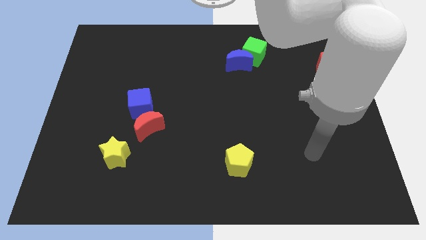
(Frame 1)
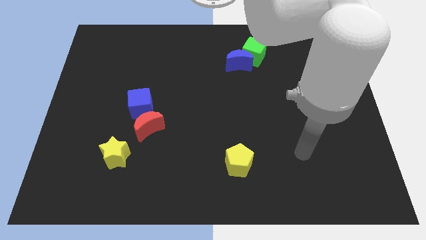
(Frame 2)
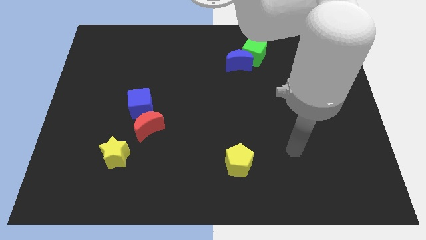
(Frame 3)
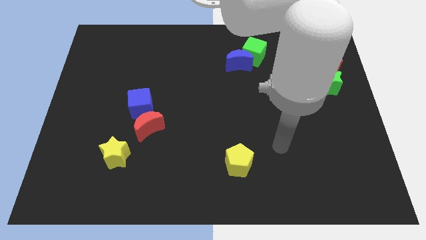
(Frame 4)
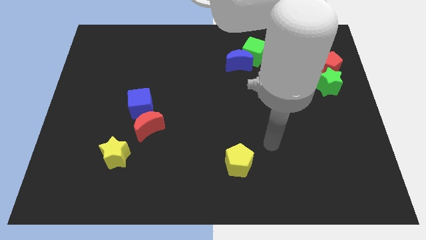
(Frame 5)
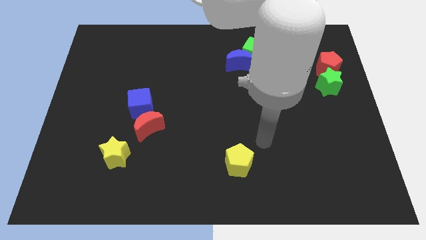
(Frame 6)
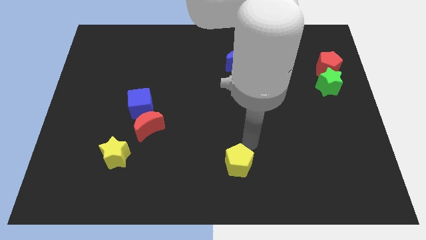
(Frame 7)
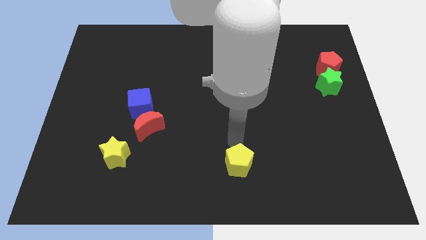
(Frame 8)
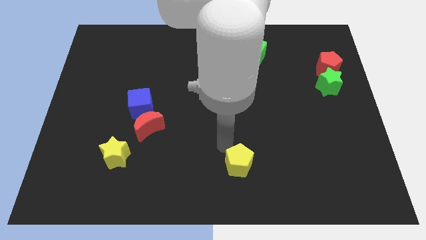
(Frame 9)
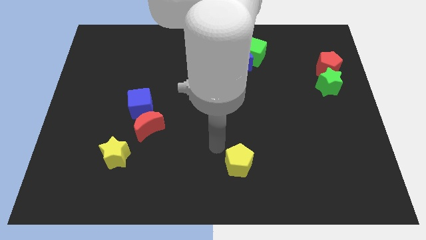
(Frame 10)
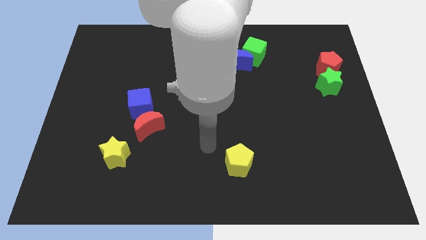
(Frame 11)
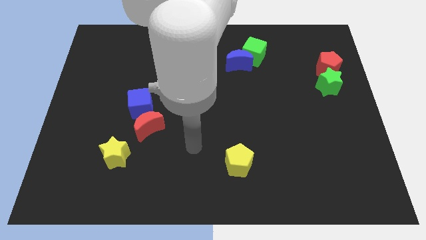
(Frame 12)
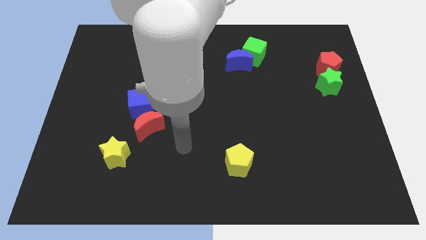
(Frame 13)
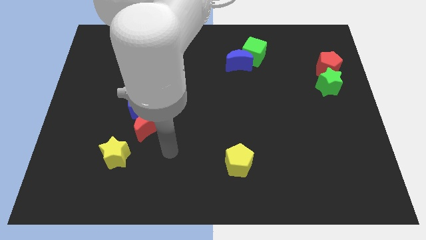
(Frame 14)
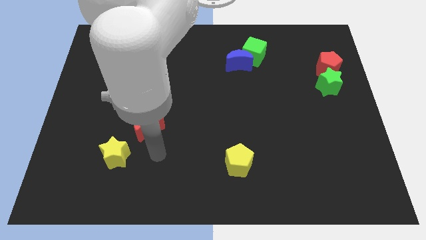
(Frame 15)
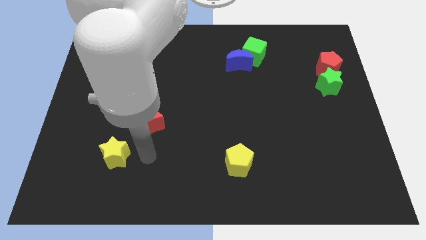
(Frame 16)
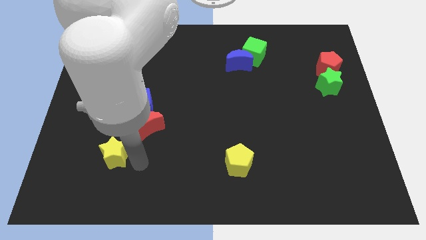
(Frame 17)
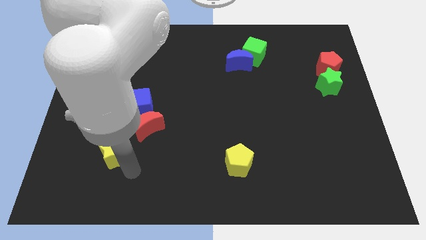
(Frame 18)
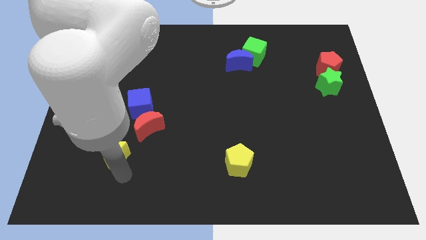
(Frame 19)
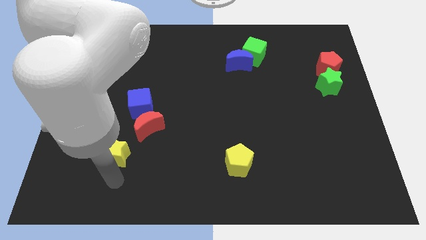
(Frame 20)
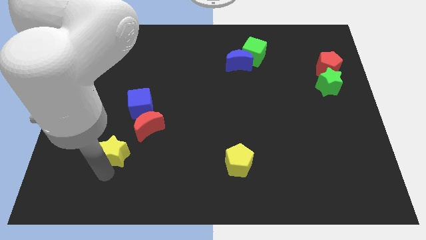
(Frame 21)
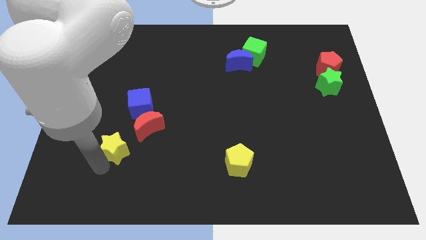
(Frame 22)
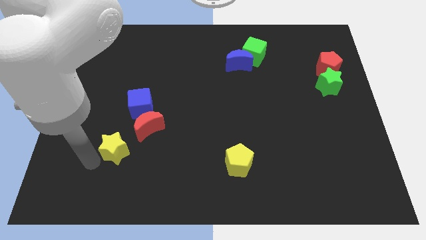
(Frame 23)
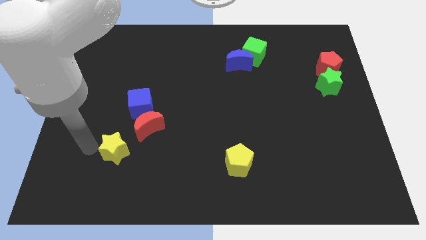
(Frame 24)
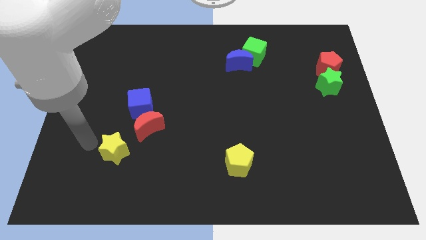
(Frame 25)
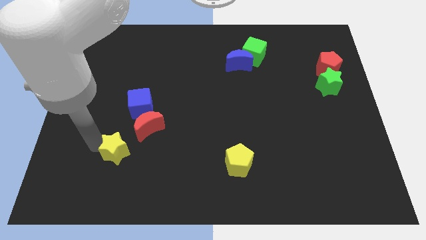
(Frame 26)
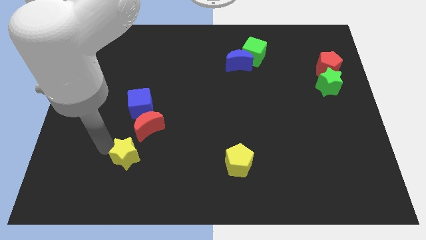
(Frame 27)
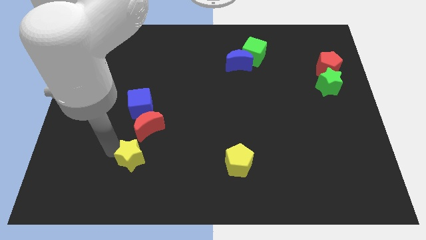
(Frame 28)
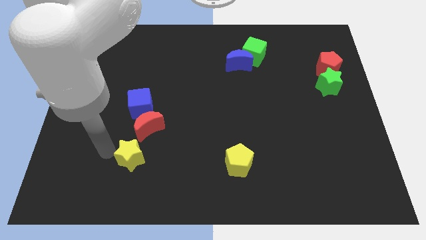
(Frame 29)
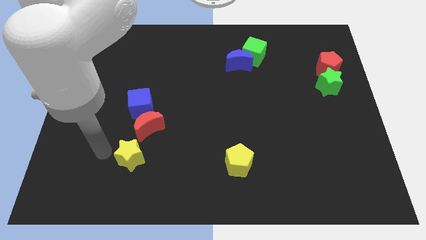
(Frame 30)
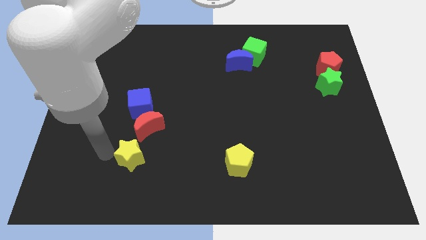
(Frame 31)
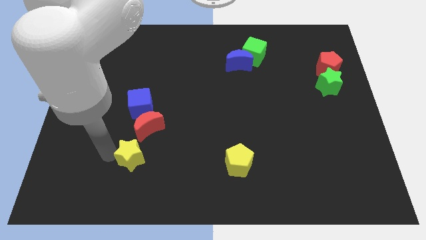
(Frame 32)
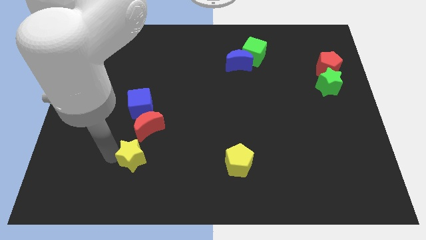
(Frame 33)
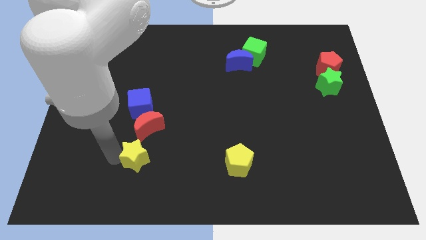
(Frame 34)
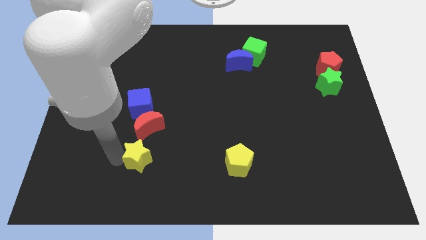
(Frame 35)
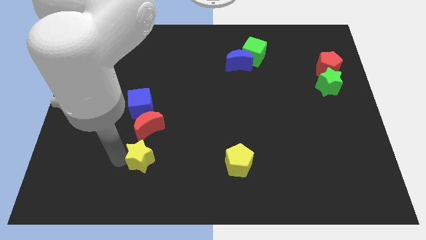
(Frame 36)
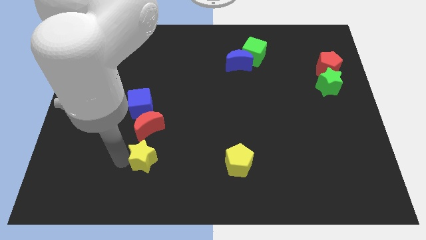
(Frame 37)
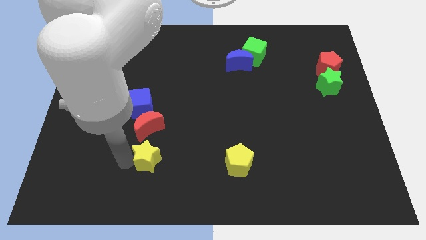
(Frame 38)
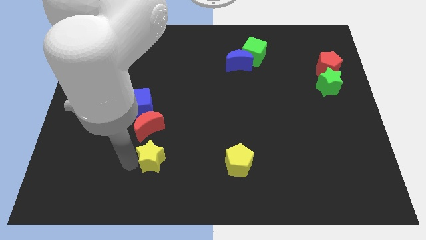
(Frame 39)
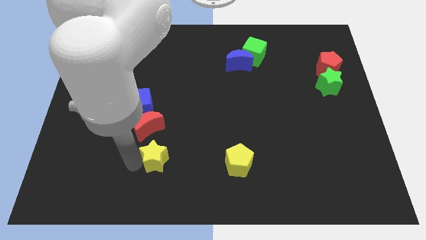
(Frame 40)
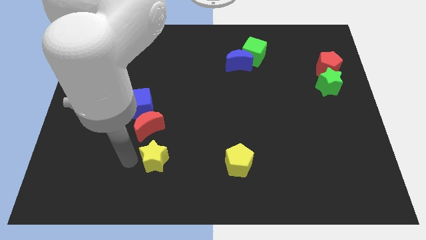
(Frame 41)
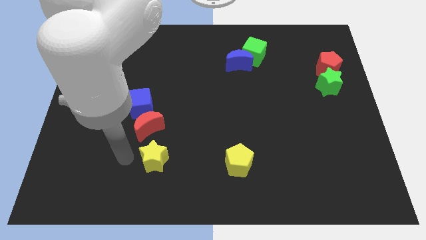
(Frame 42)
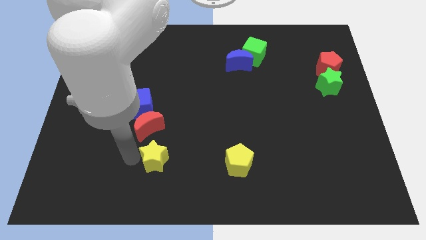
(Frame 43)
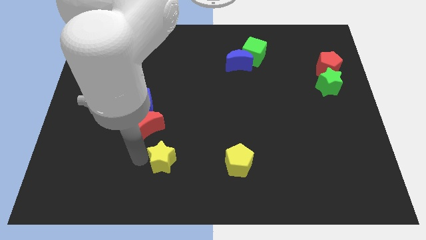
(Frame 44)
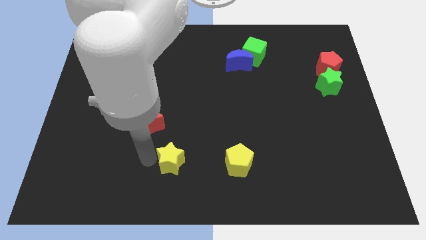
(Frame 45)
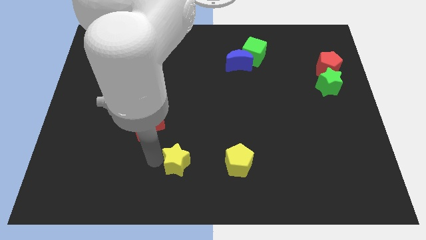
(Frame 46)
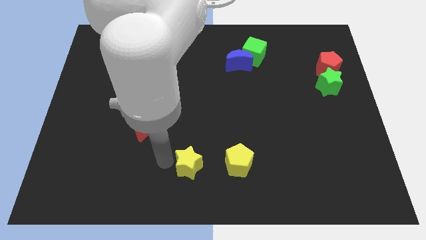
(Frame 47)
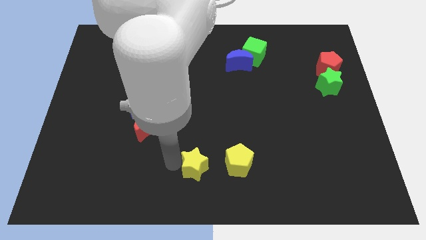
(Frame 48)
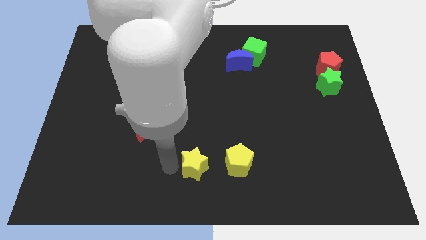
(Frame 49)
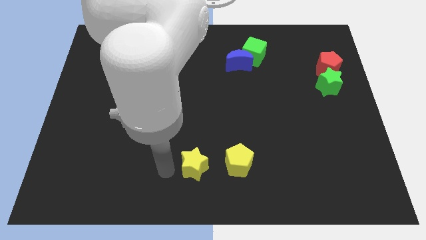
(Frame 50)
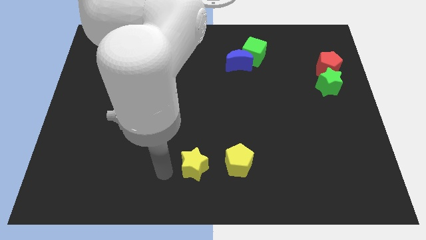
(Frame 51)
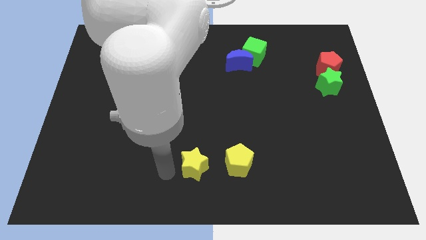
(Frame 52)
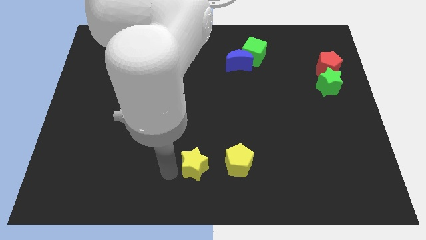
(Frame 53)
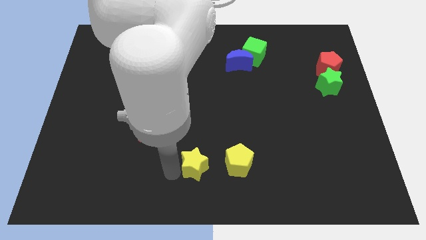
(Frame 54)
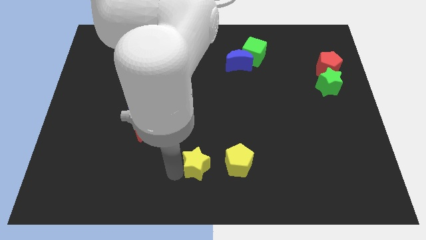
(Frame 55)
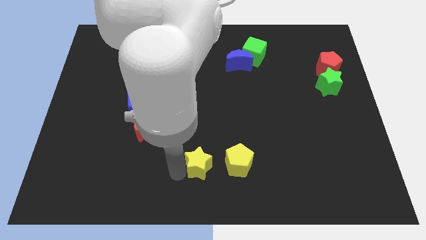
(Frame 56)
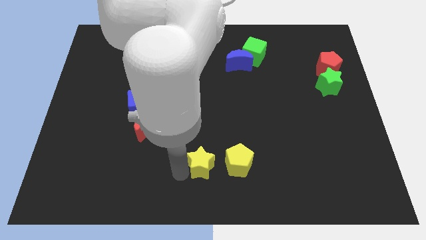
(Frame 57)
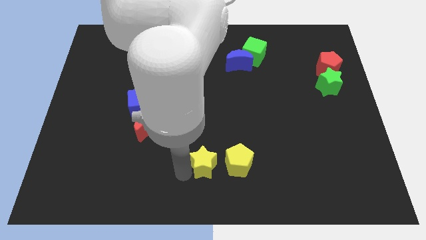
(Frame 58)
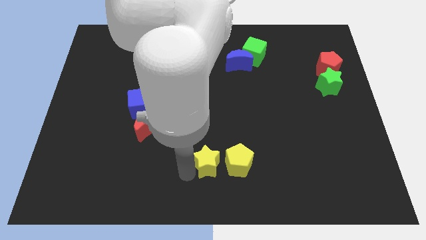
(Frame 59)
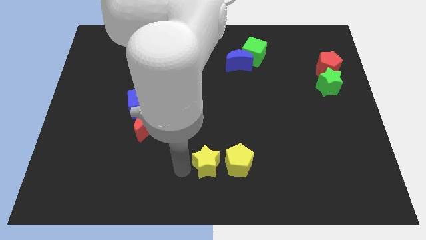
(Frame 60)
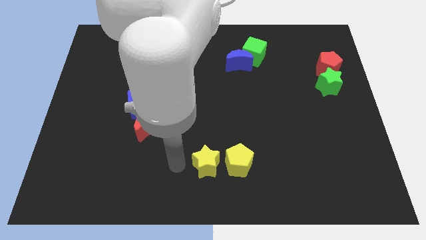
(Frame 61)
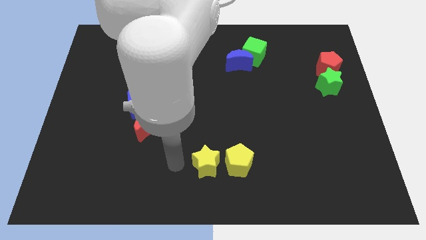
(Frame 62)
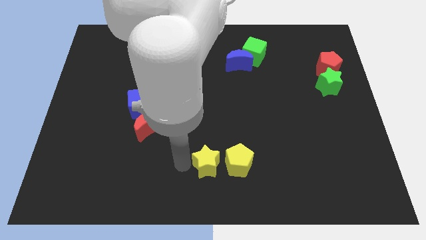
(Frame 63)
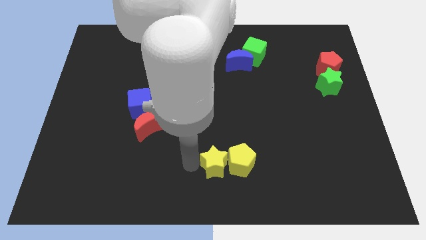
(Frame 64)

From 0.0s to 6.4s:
slide the yellow star next to the yellow pentagon

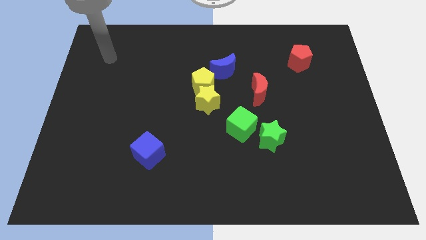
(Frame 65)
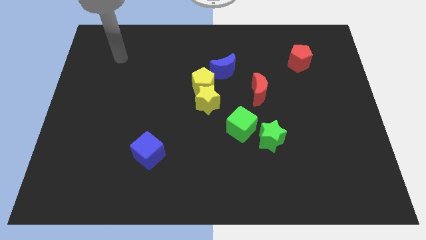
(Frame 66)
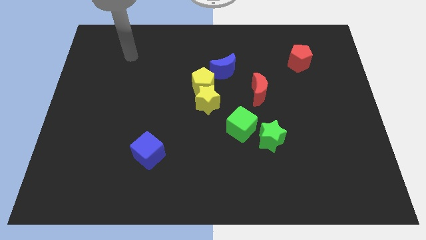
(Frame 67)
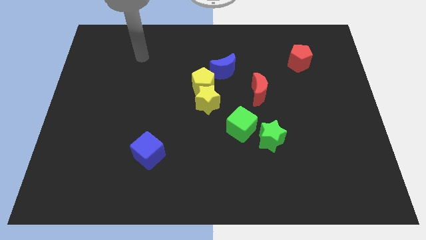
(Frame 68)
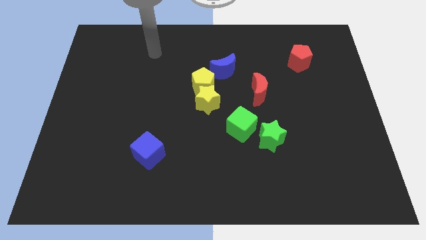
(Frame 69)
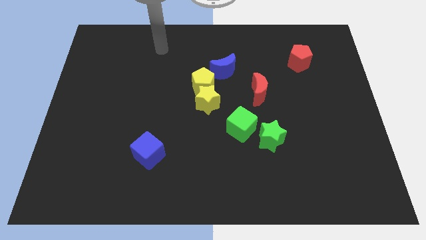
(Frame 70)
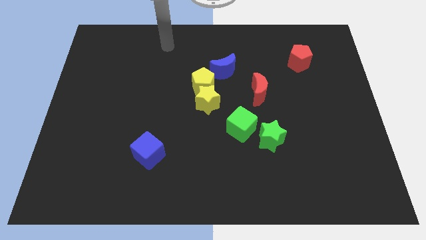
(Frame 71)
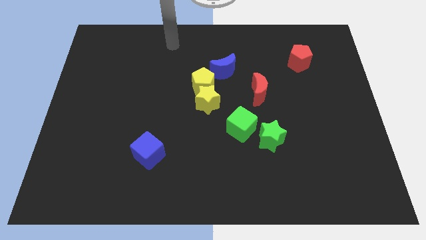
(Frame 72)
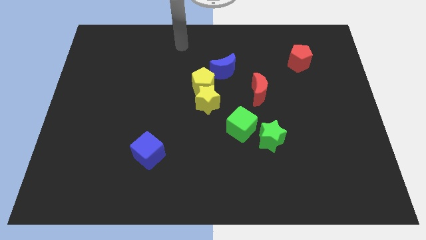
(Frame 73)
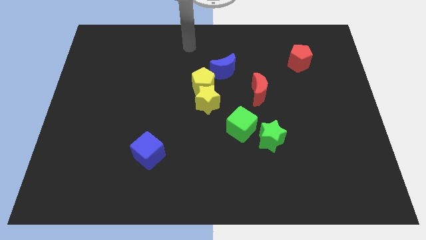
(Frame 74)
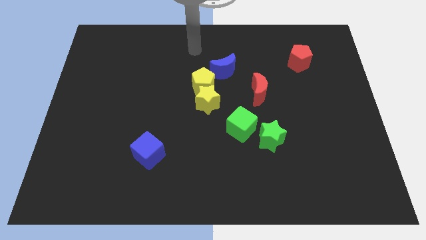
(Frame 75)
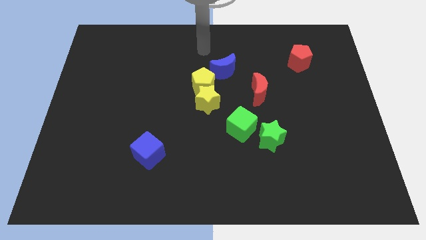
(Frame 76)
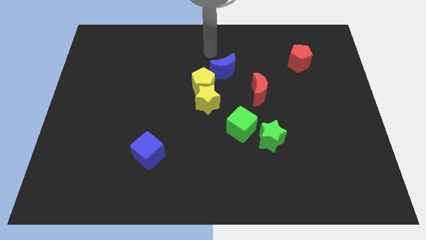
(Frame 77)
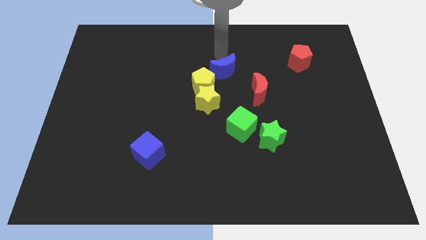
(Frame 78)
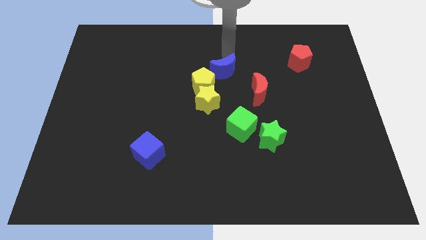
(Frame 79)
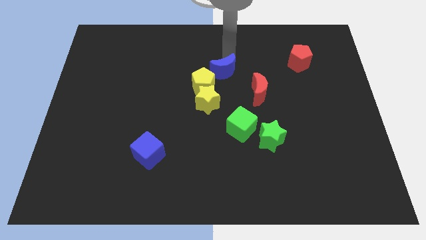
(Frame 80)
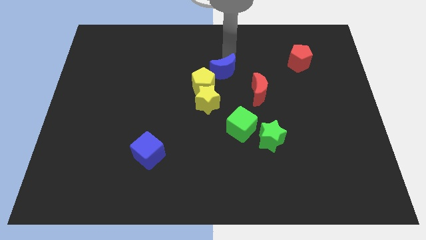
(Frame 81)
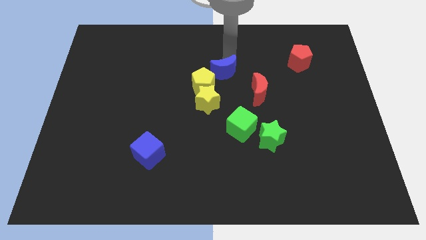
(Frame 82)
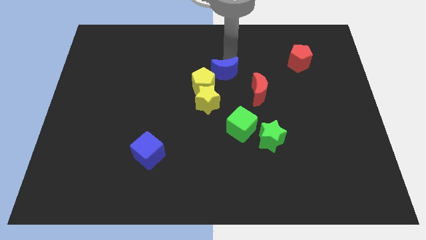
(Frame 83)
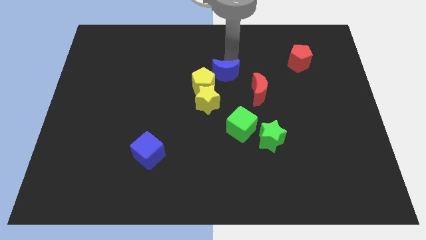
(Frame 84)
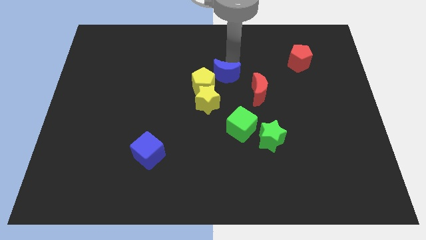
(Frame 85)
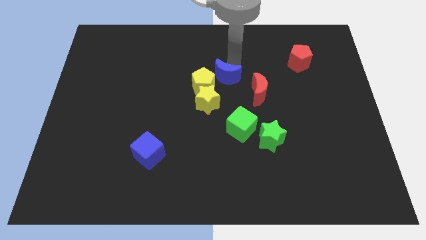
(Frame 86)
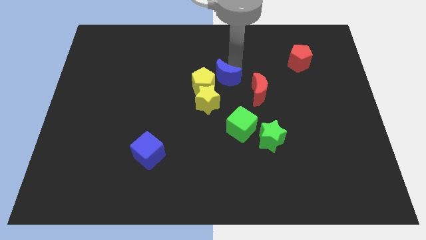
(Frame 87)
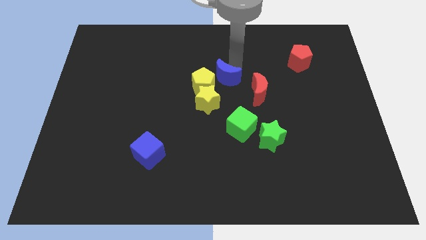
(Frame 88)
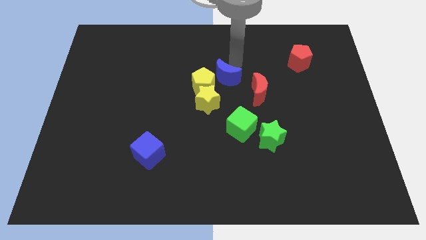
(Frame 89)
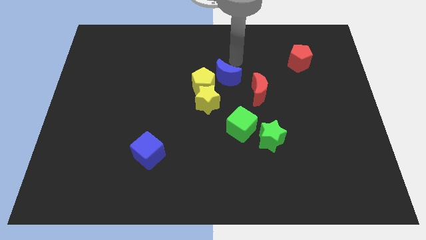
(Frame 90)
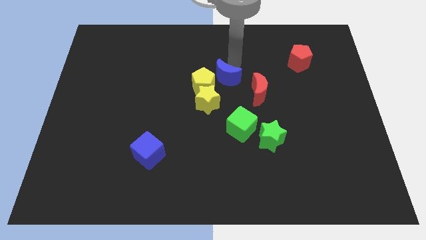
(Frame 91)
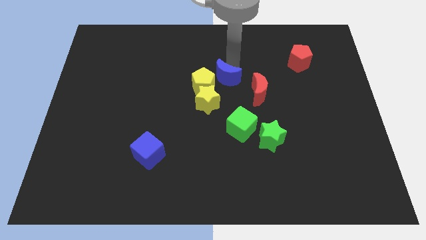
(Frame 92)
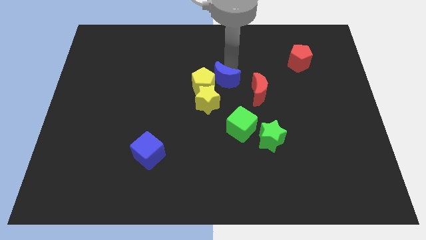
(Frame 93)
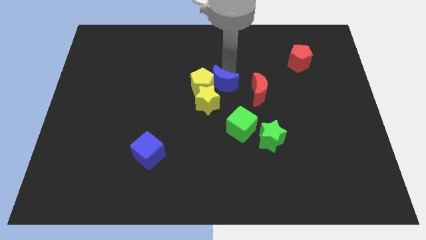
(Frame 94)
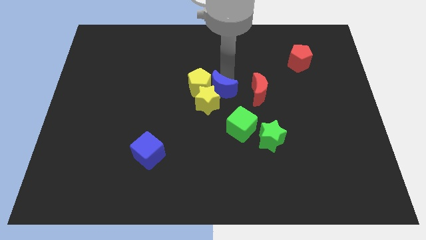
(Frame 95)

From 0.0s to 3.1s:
move the blue moon towards the yellow star
